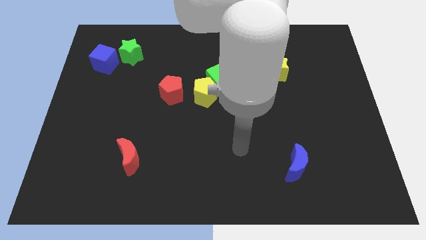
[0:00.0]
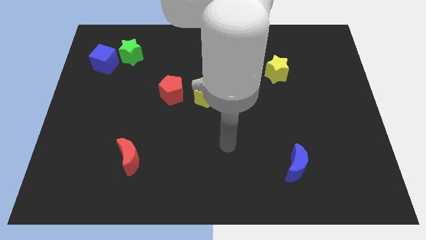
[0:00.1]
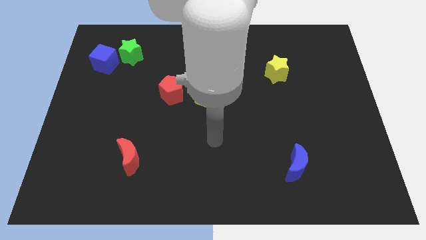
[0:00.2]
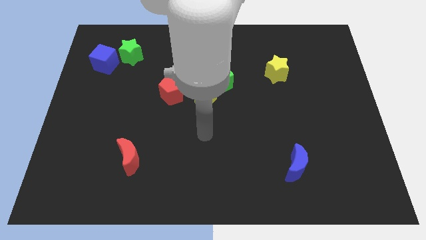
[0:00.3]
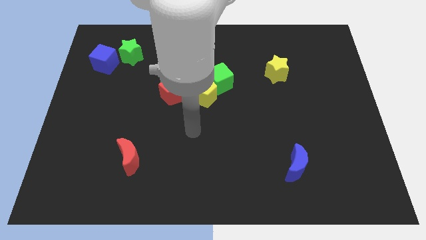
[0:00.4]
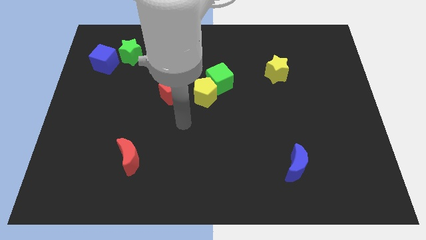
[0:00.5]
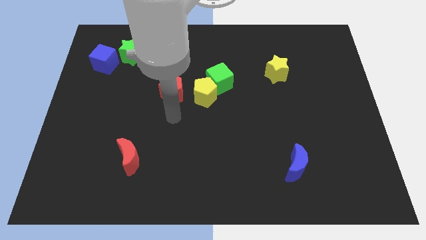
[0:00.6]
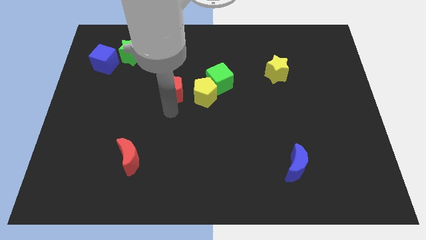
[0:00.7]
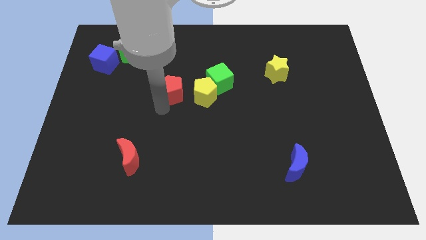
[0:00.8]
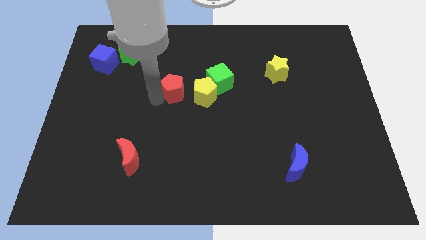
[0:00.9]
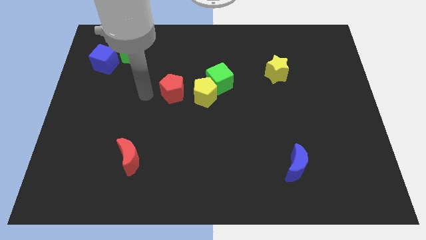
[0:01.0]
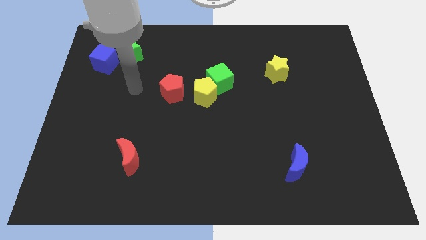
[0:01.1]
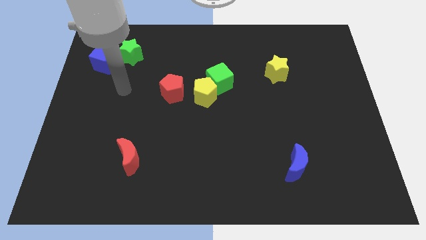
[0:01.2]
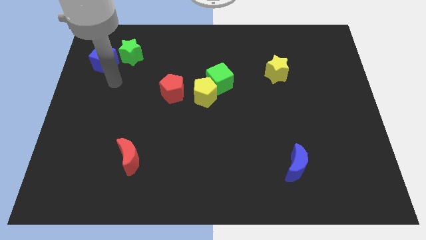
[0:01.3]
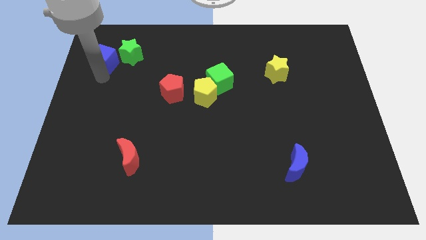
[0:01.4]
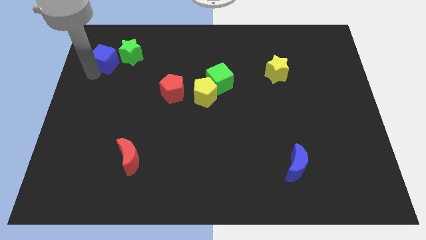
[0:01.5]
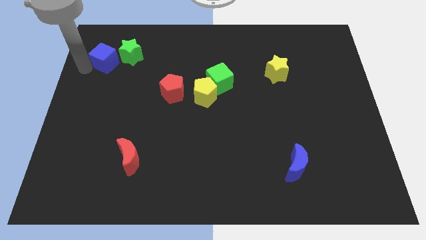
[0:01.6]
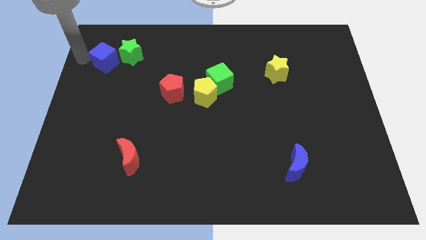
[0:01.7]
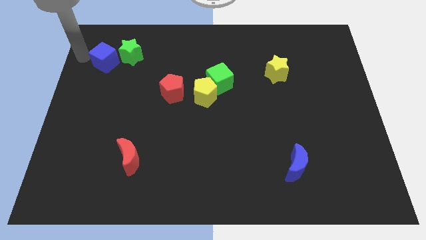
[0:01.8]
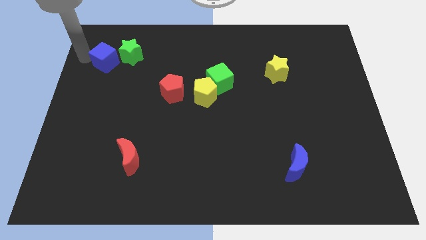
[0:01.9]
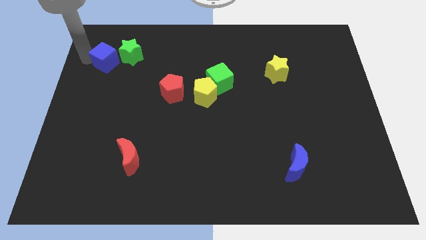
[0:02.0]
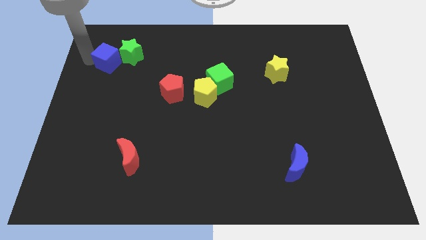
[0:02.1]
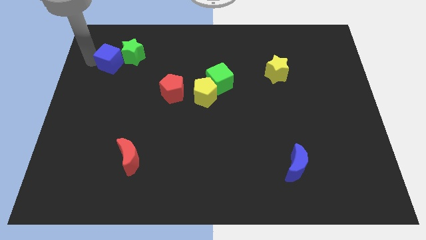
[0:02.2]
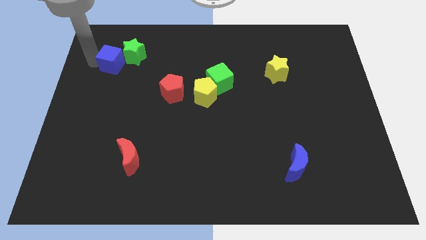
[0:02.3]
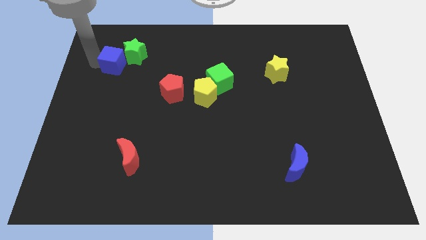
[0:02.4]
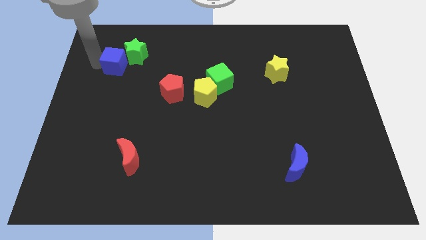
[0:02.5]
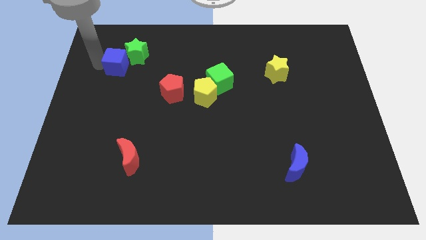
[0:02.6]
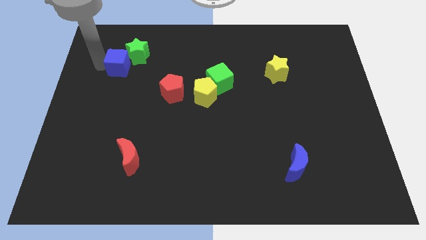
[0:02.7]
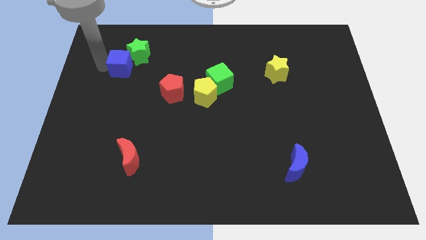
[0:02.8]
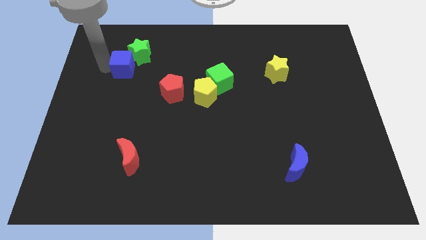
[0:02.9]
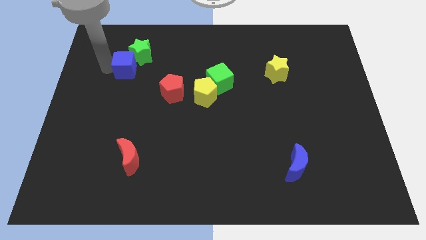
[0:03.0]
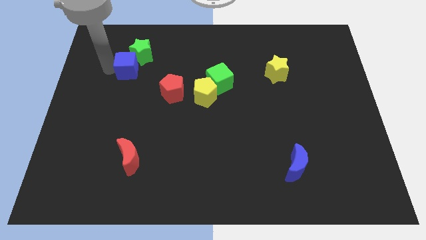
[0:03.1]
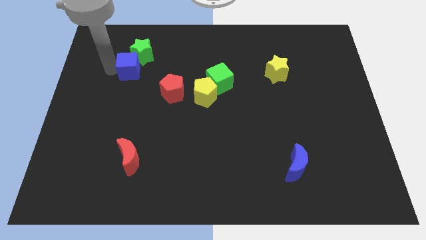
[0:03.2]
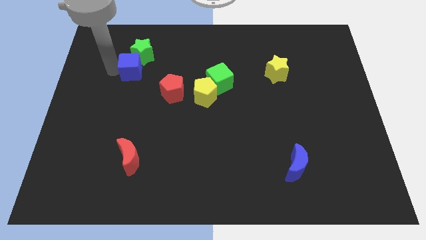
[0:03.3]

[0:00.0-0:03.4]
slightly slide the blue cube to the right

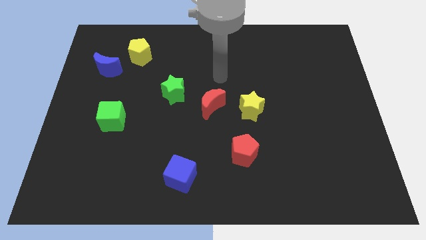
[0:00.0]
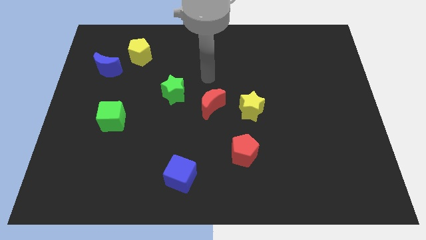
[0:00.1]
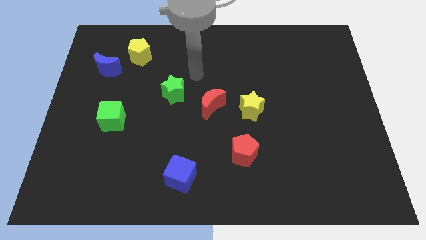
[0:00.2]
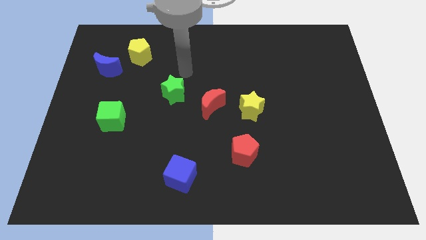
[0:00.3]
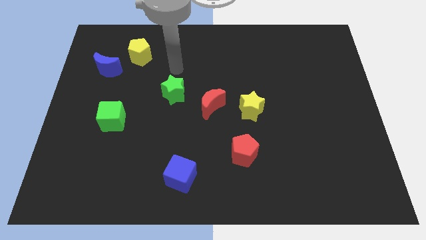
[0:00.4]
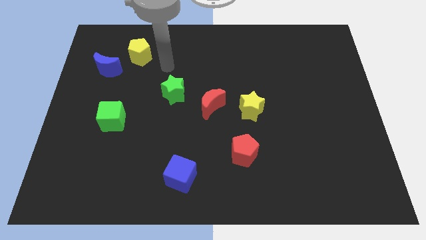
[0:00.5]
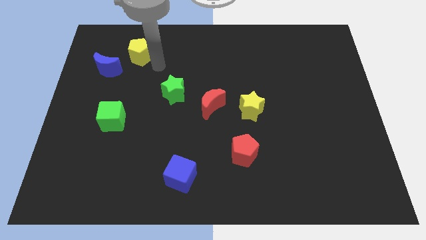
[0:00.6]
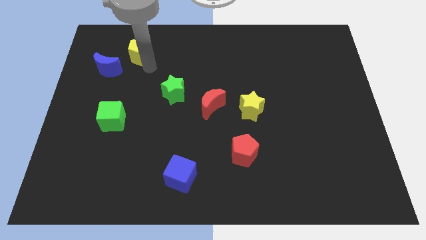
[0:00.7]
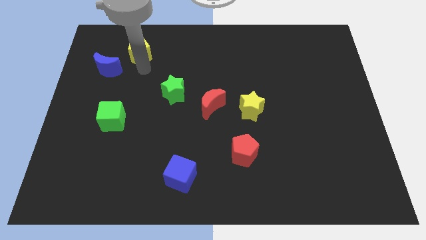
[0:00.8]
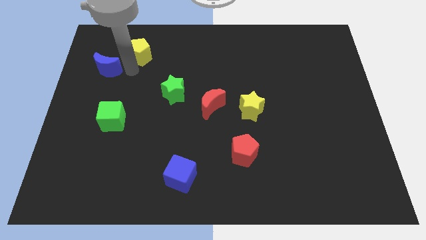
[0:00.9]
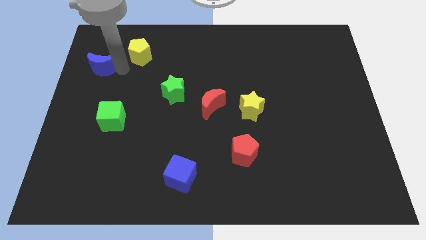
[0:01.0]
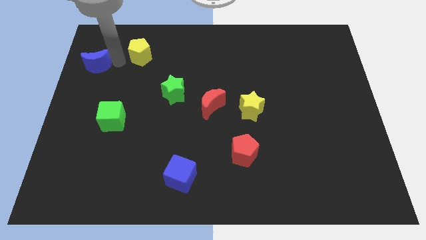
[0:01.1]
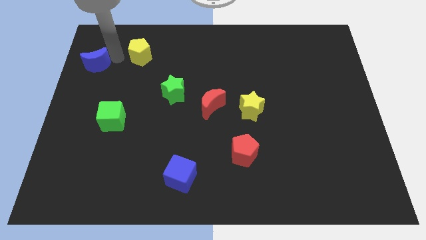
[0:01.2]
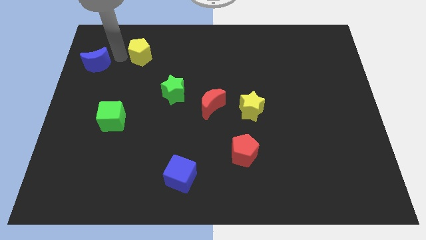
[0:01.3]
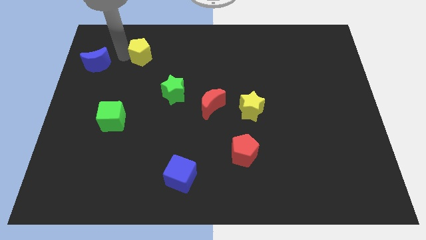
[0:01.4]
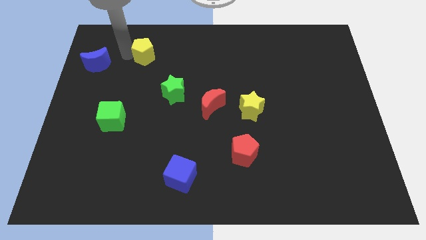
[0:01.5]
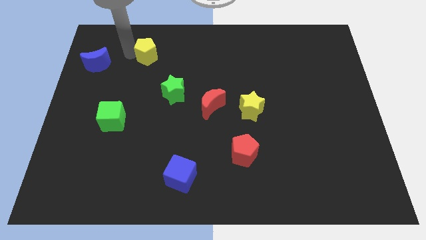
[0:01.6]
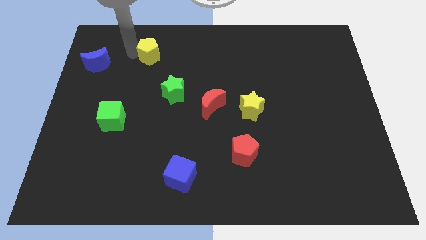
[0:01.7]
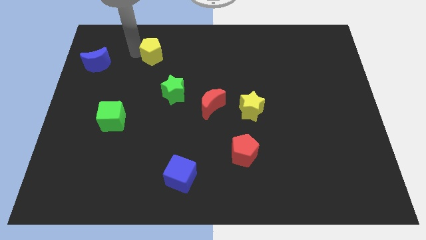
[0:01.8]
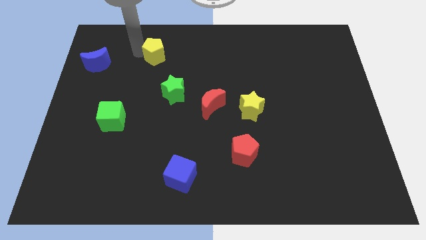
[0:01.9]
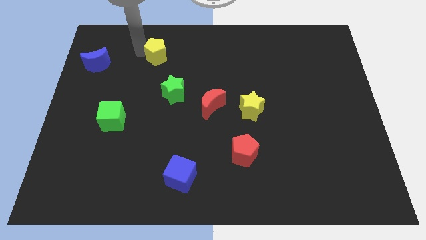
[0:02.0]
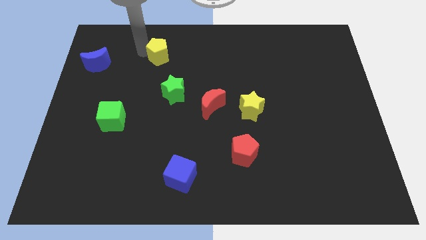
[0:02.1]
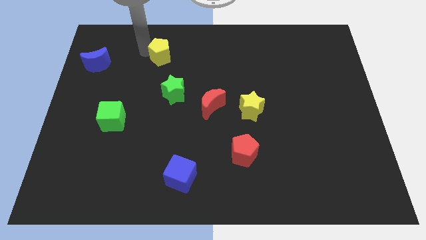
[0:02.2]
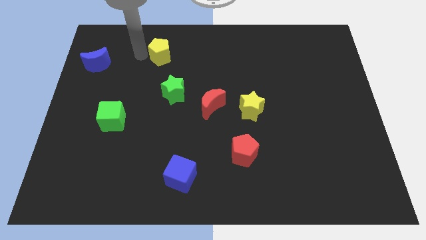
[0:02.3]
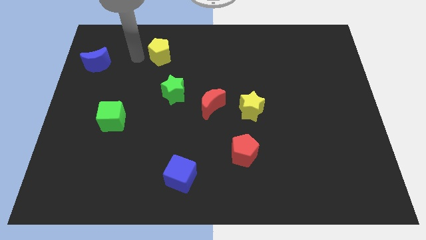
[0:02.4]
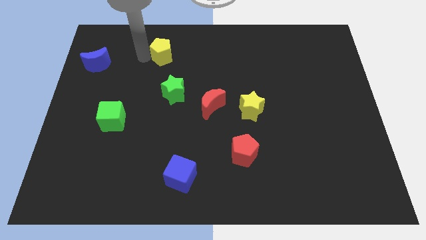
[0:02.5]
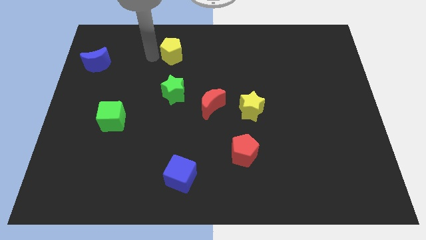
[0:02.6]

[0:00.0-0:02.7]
slide the yellow pentagon right a little

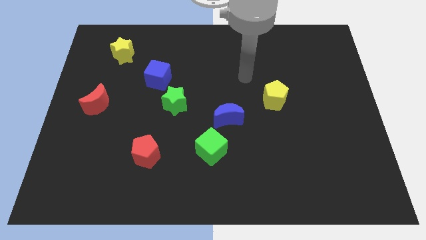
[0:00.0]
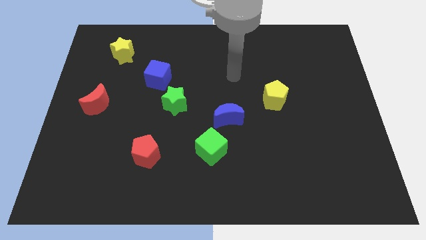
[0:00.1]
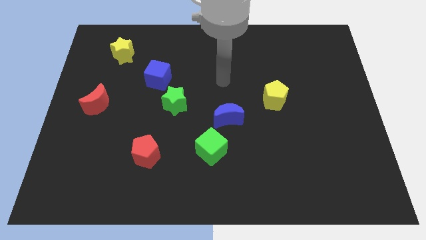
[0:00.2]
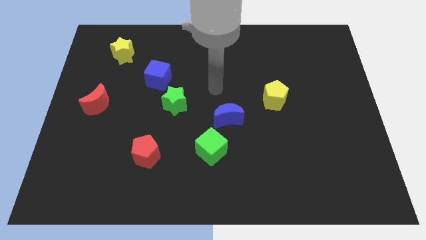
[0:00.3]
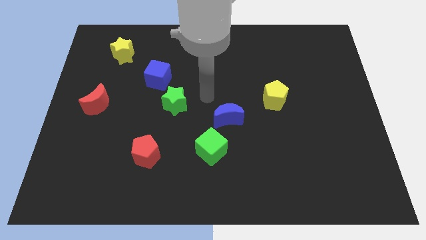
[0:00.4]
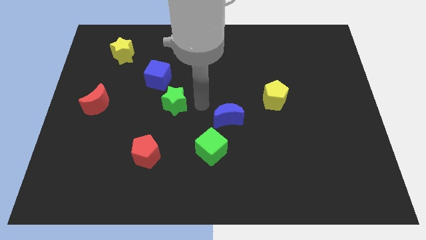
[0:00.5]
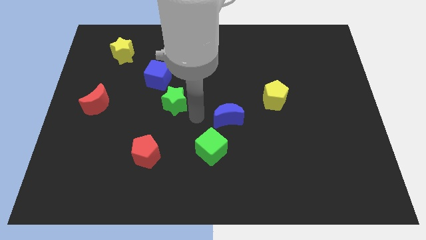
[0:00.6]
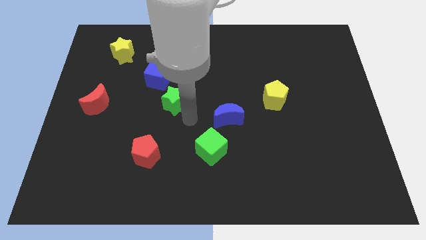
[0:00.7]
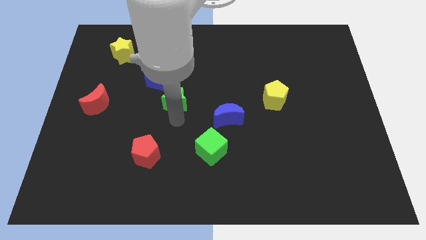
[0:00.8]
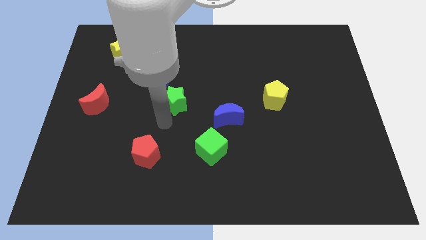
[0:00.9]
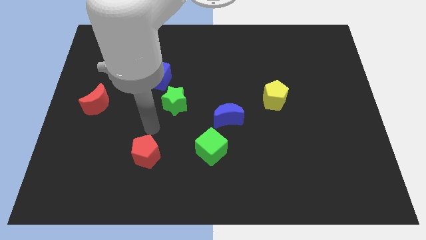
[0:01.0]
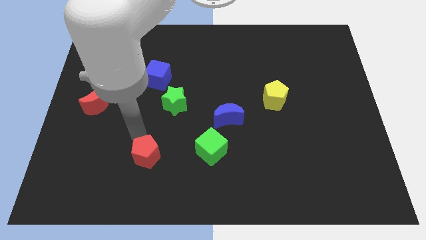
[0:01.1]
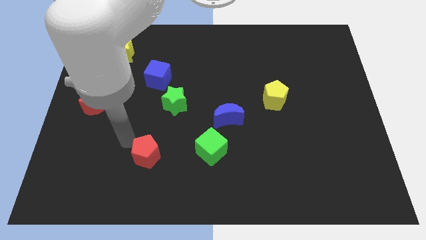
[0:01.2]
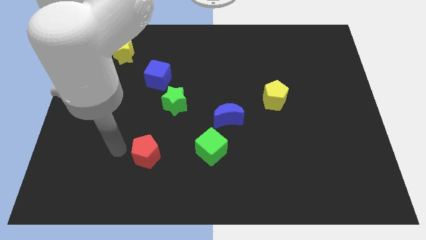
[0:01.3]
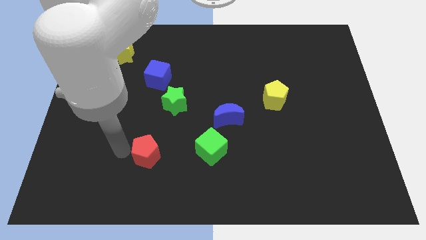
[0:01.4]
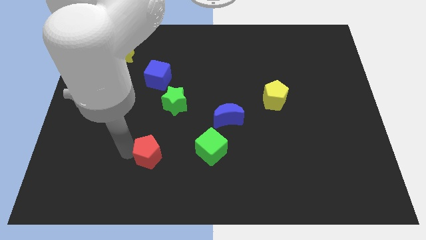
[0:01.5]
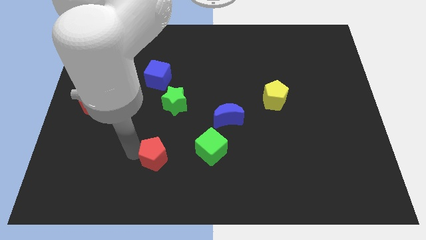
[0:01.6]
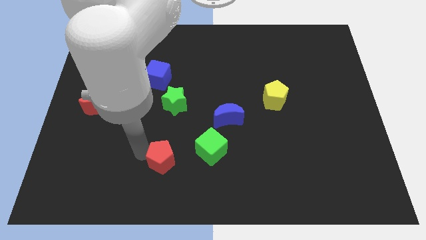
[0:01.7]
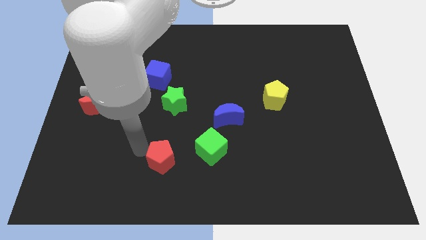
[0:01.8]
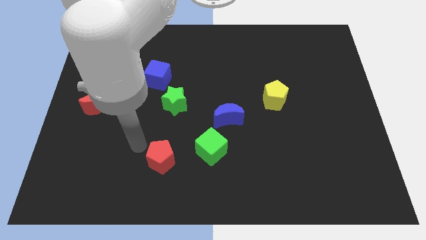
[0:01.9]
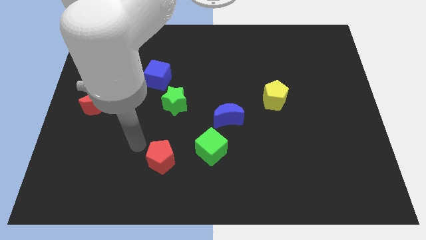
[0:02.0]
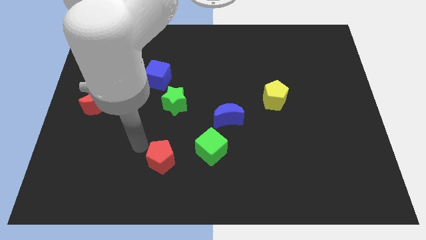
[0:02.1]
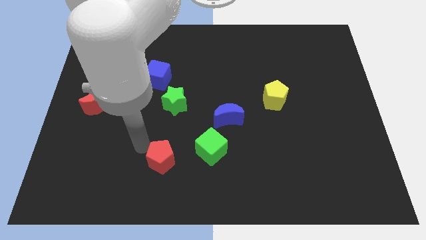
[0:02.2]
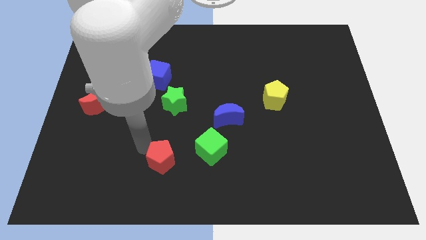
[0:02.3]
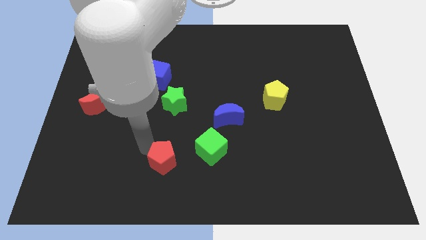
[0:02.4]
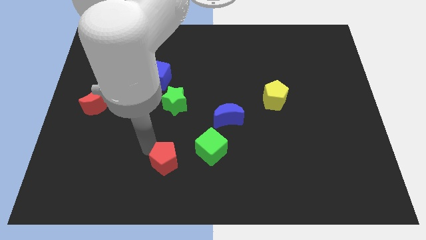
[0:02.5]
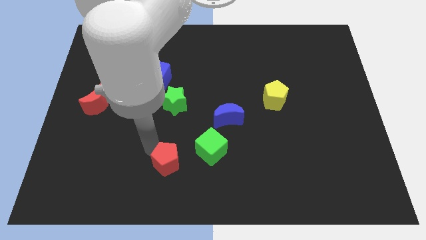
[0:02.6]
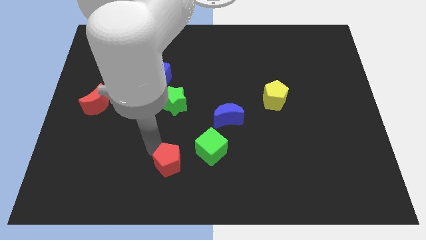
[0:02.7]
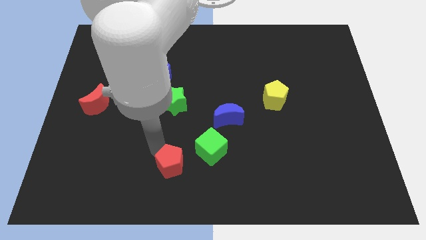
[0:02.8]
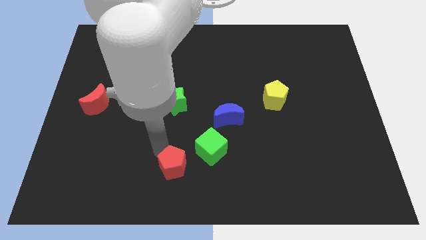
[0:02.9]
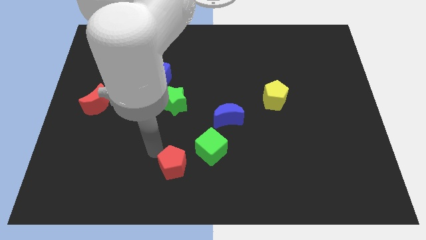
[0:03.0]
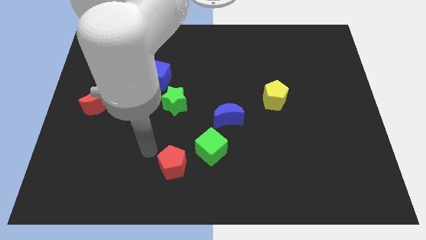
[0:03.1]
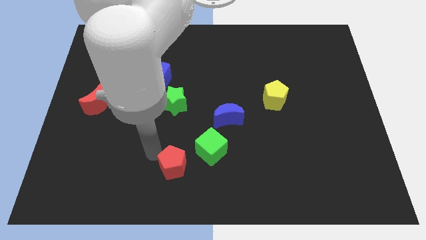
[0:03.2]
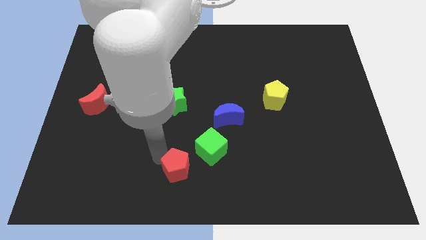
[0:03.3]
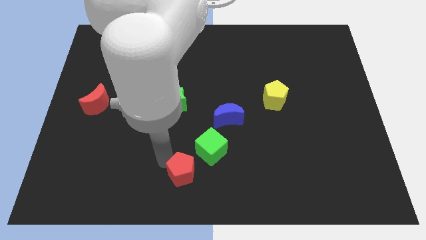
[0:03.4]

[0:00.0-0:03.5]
push the red pentagon a little to the right
